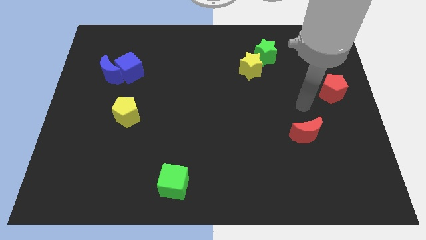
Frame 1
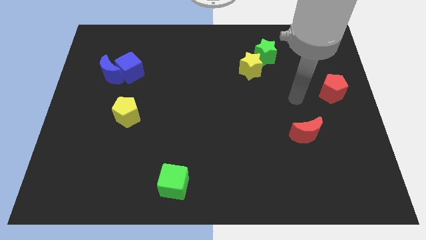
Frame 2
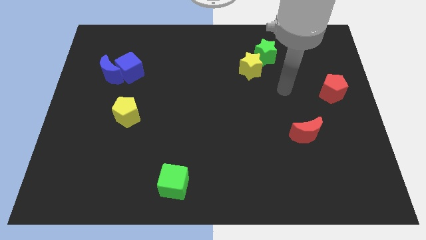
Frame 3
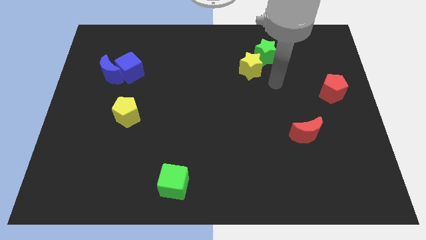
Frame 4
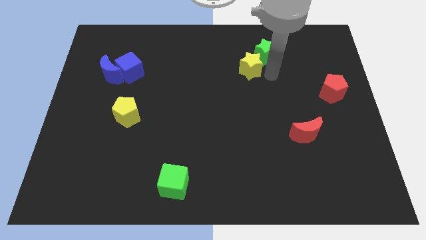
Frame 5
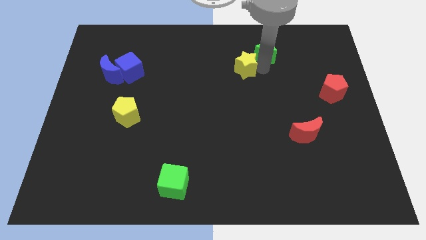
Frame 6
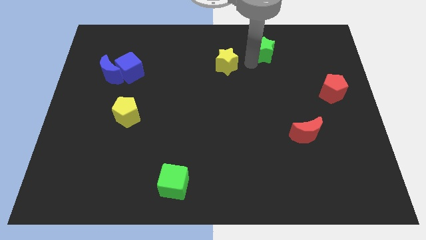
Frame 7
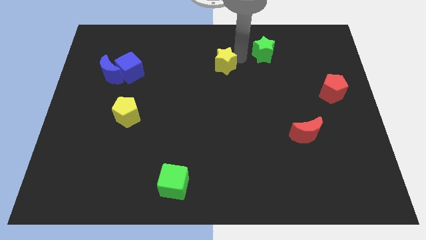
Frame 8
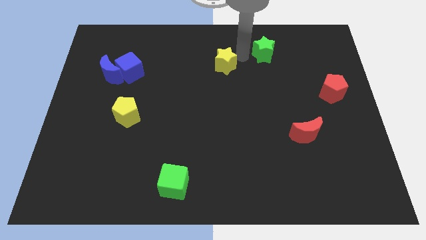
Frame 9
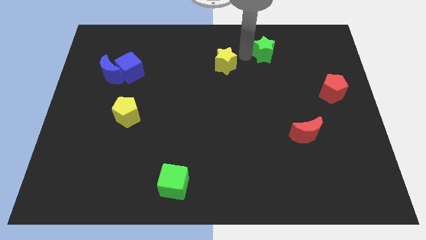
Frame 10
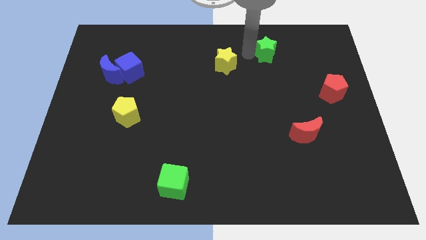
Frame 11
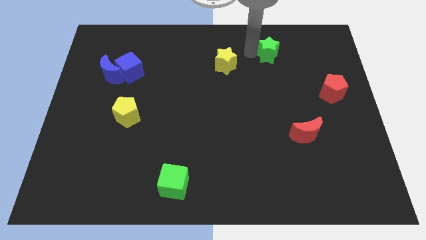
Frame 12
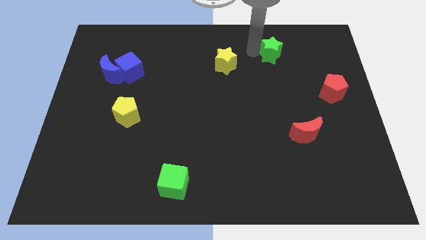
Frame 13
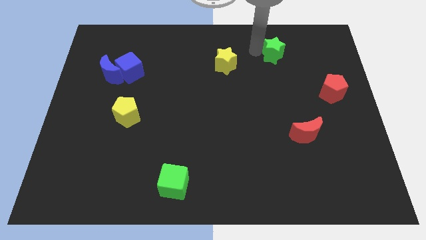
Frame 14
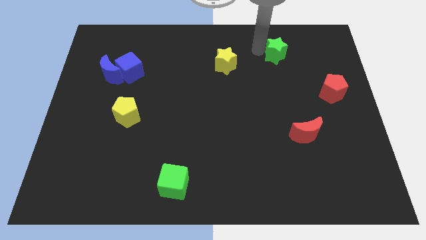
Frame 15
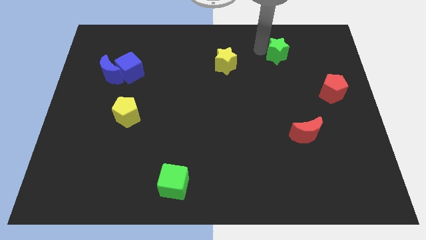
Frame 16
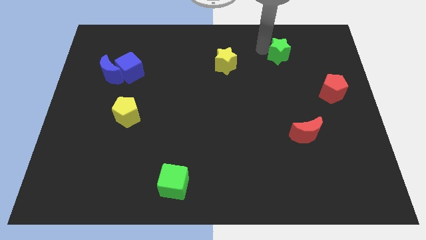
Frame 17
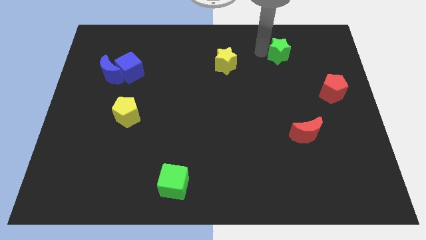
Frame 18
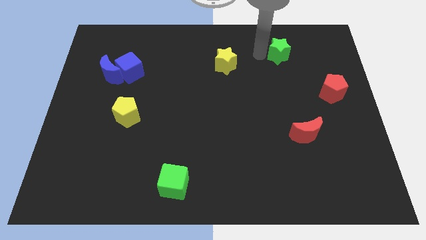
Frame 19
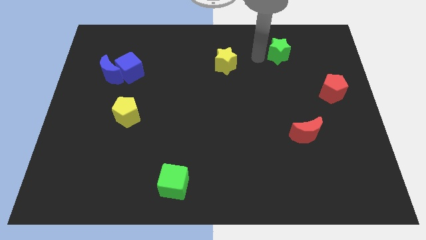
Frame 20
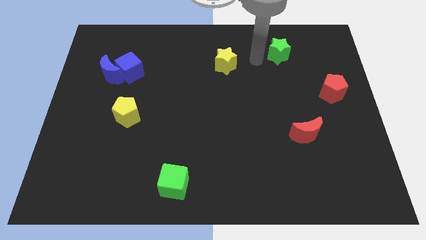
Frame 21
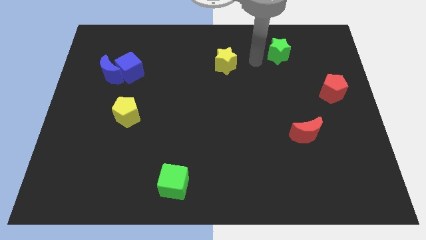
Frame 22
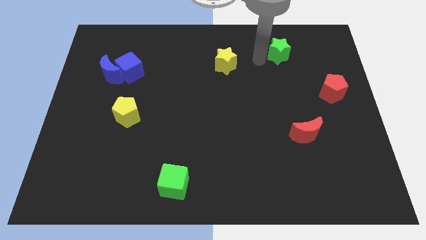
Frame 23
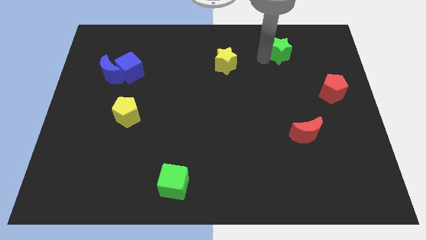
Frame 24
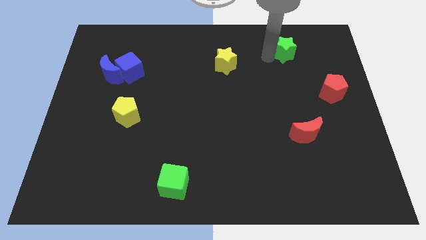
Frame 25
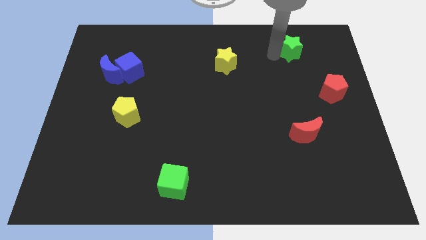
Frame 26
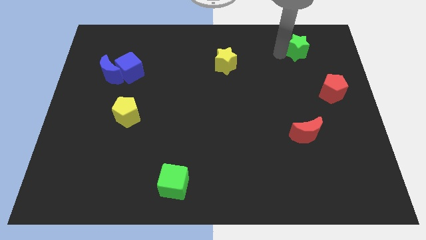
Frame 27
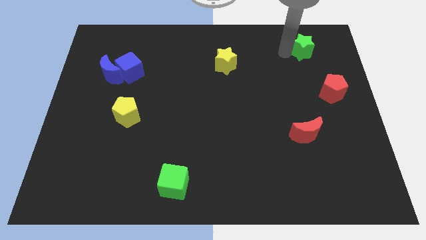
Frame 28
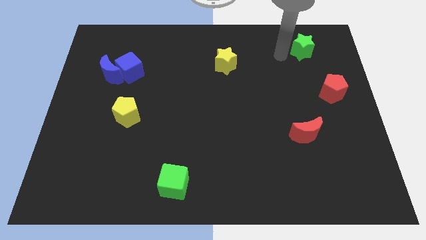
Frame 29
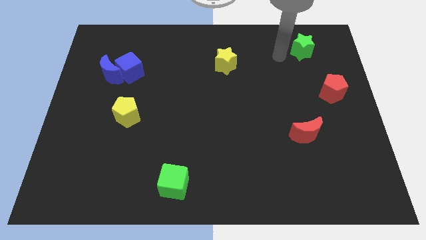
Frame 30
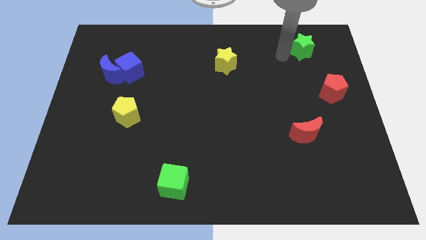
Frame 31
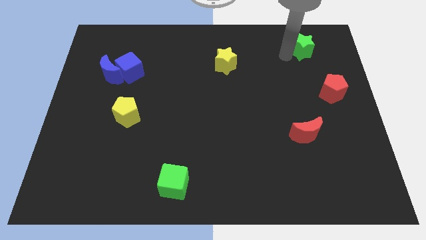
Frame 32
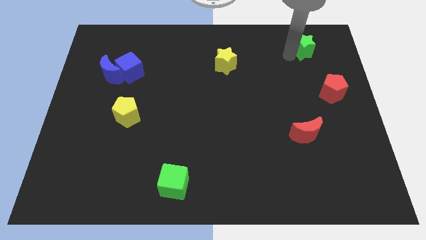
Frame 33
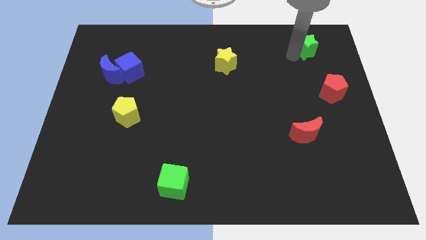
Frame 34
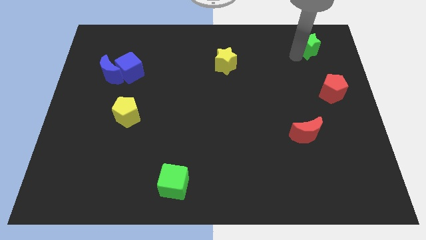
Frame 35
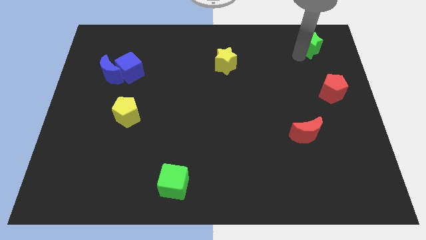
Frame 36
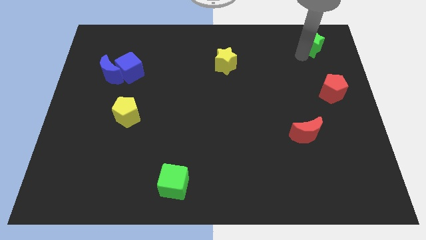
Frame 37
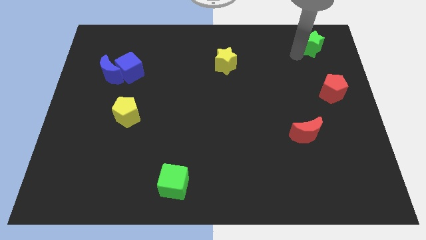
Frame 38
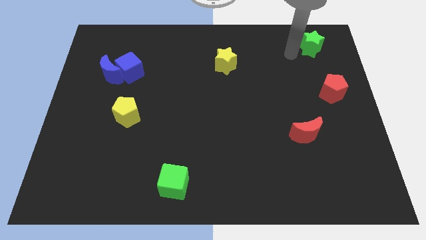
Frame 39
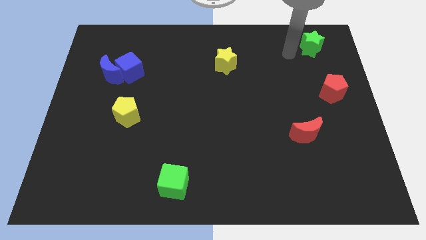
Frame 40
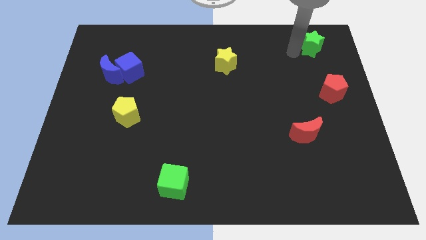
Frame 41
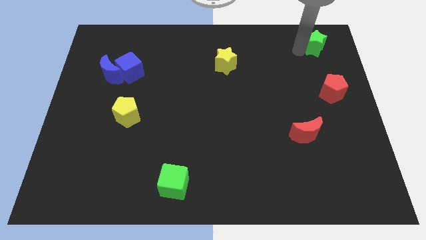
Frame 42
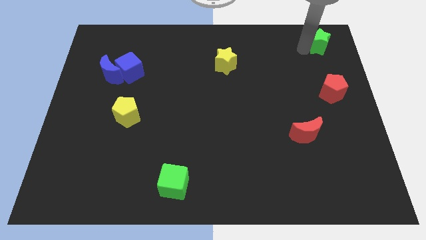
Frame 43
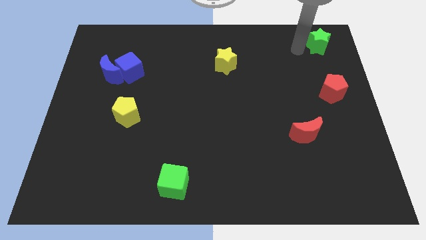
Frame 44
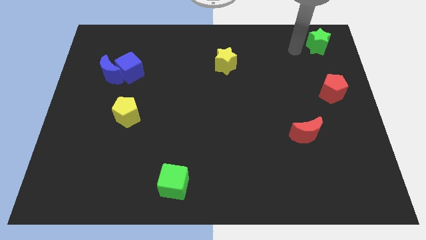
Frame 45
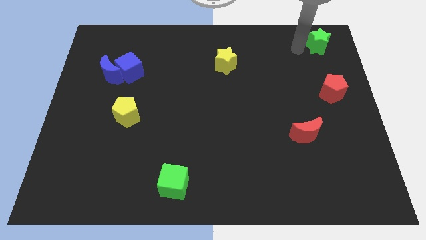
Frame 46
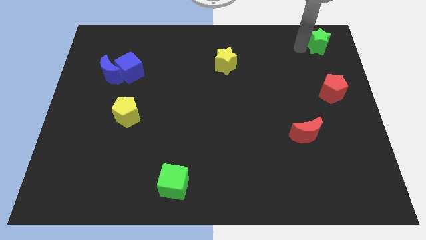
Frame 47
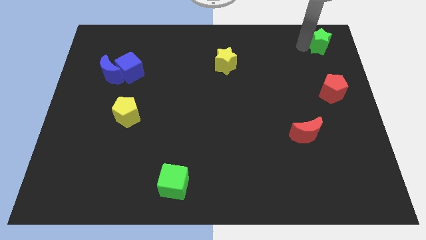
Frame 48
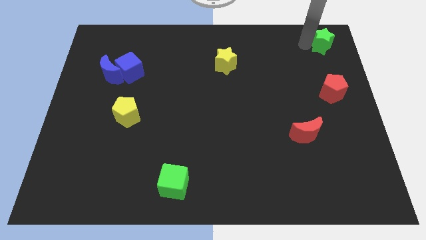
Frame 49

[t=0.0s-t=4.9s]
push the green star to the upper right corner

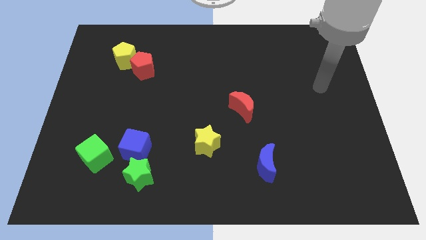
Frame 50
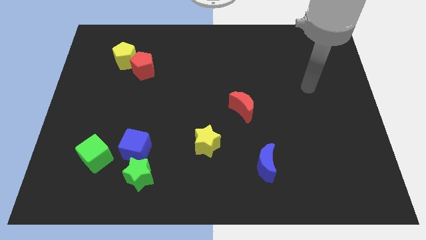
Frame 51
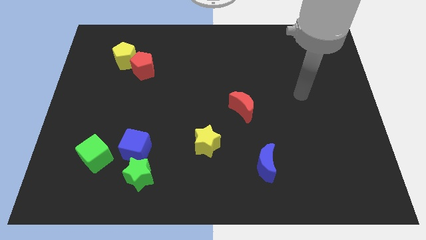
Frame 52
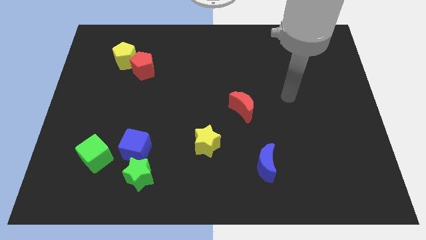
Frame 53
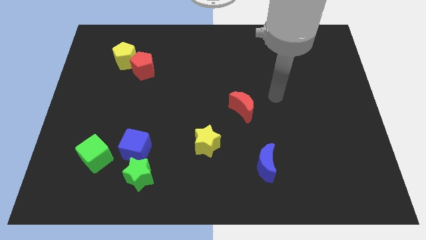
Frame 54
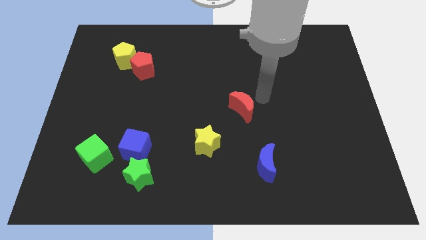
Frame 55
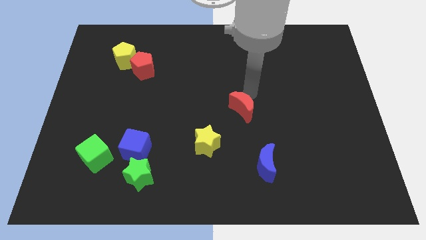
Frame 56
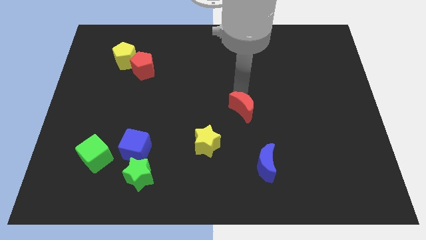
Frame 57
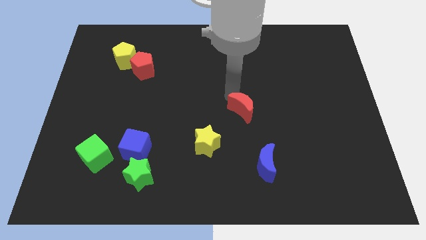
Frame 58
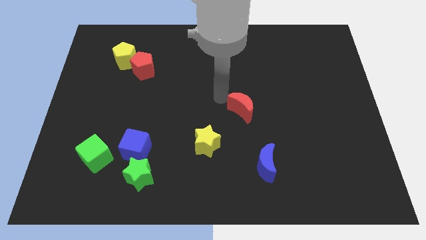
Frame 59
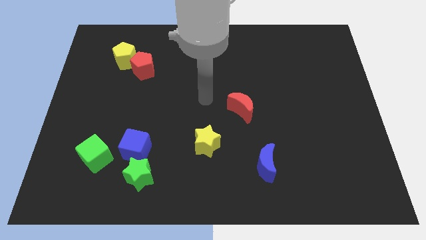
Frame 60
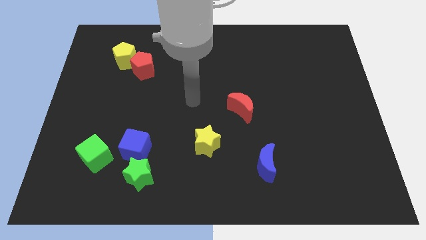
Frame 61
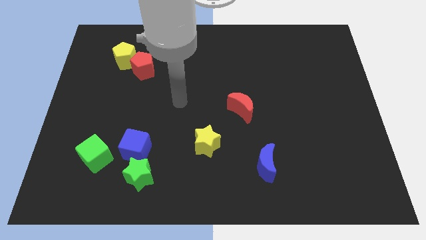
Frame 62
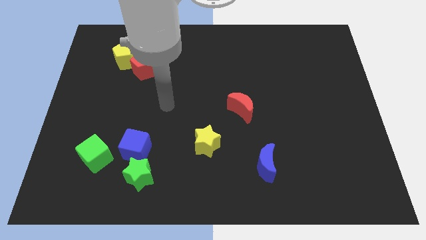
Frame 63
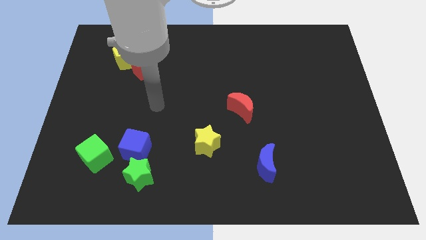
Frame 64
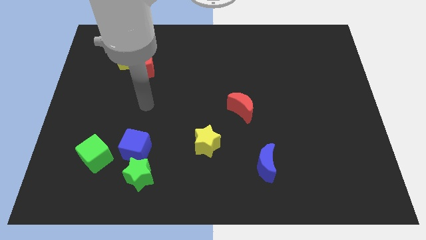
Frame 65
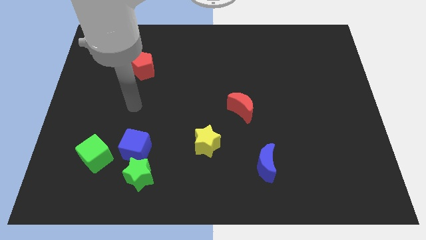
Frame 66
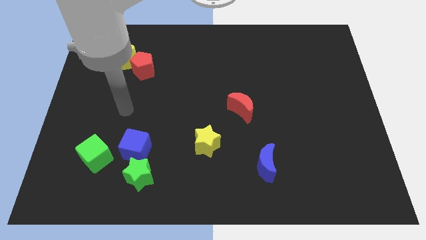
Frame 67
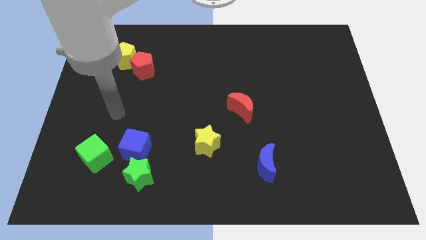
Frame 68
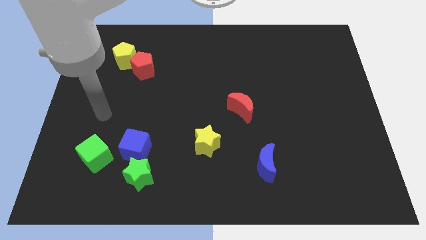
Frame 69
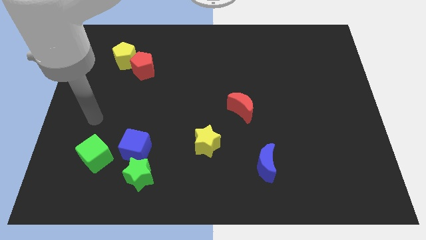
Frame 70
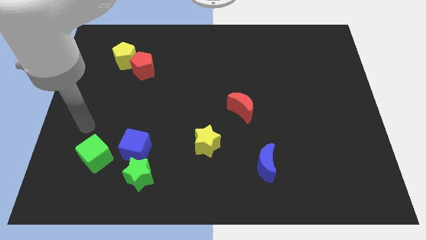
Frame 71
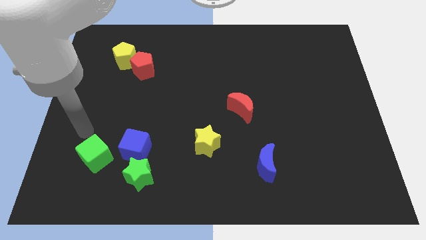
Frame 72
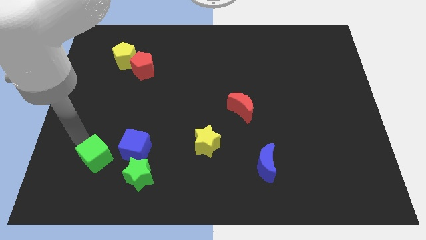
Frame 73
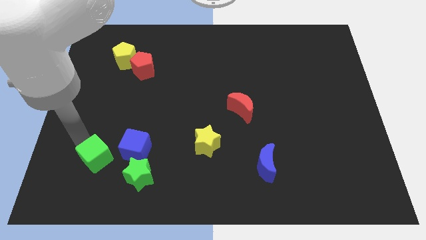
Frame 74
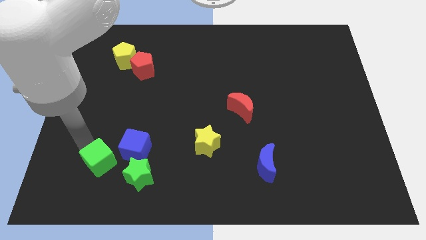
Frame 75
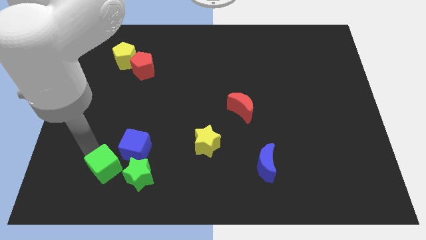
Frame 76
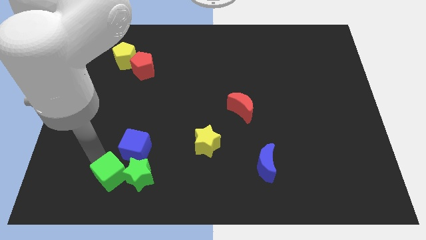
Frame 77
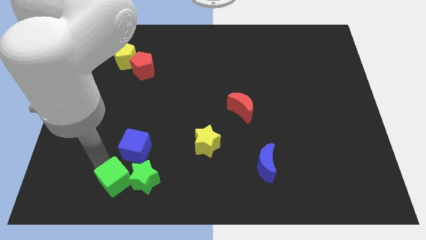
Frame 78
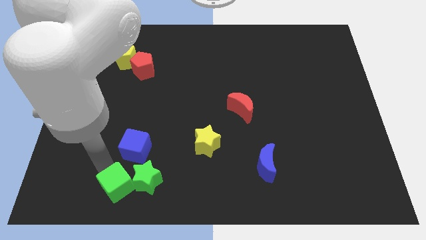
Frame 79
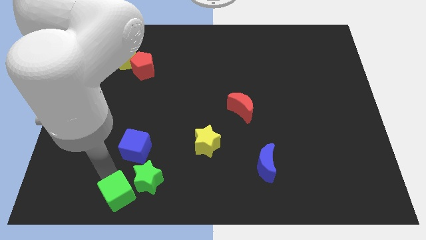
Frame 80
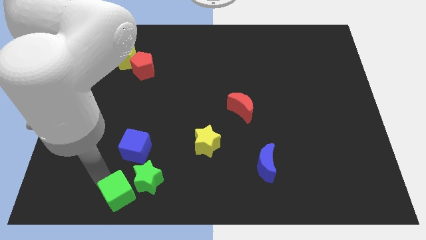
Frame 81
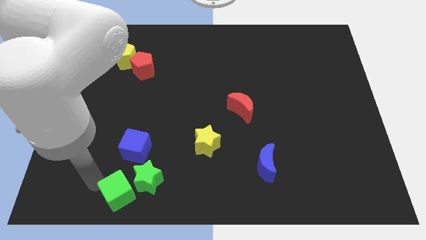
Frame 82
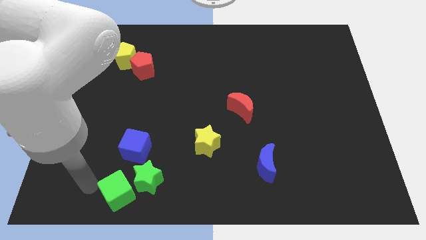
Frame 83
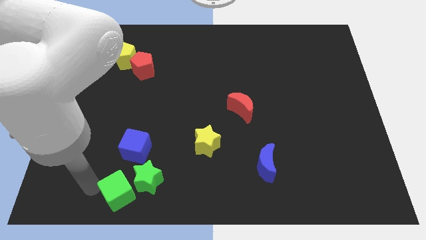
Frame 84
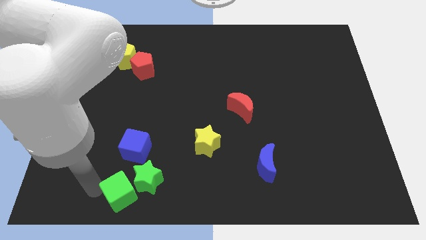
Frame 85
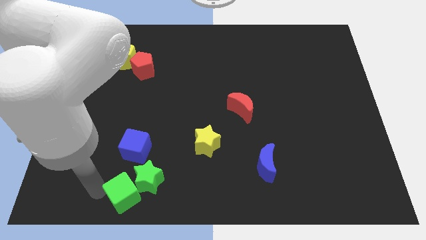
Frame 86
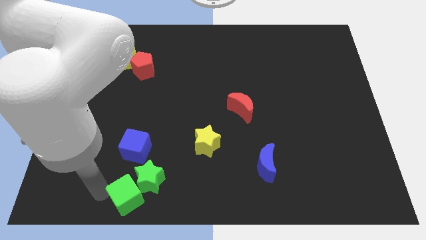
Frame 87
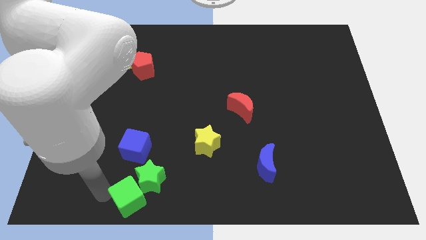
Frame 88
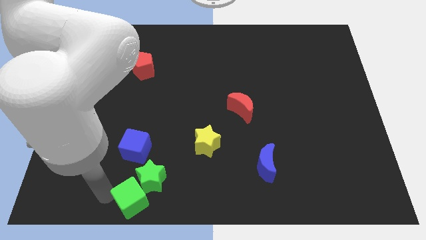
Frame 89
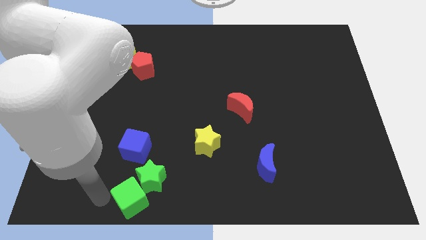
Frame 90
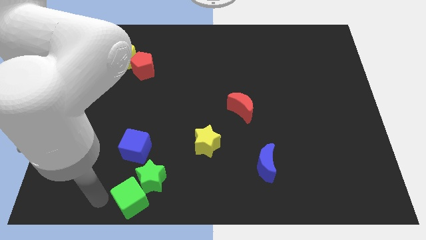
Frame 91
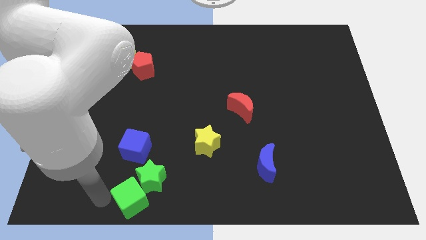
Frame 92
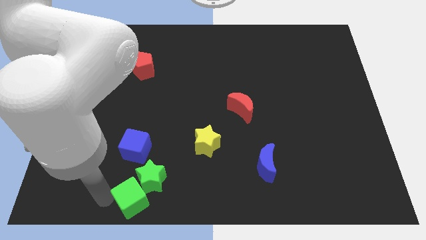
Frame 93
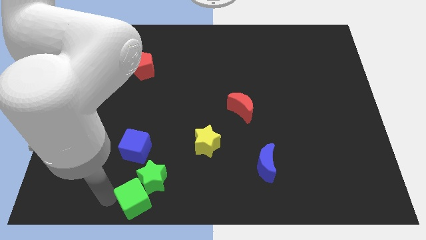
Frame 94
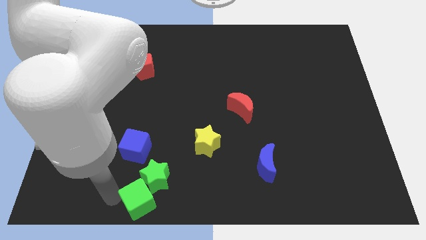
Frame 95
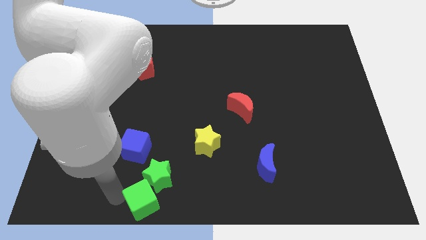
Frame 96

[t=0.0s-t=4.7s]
put the green cube to the bottom
